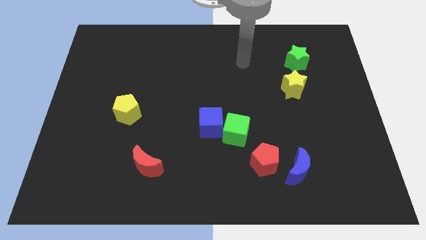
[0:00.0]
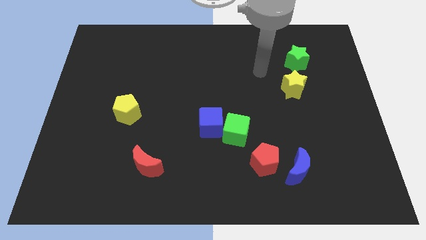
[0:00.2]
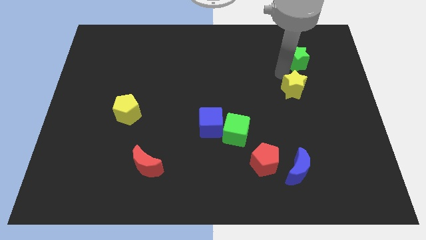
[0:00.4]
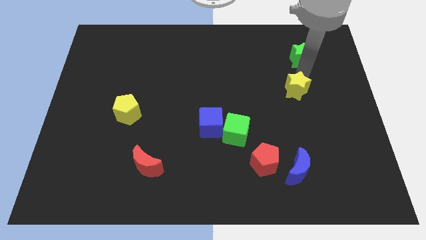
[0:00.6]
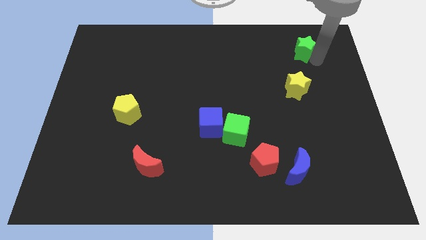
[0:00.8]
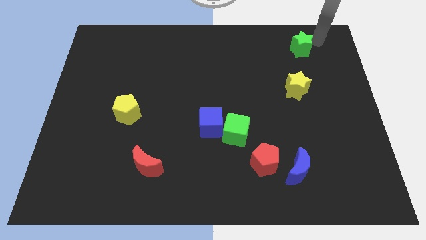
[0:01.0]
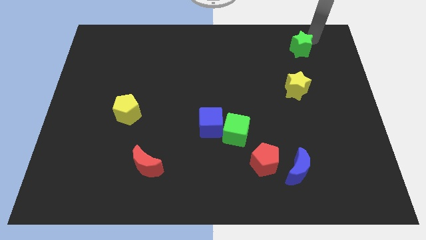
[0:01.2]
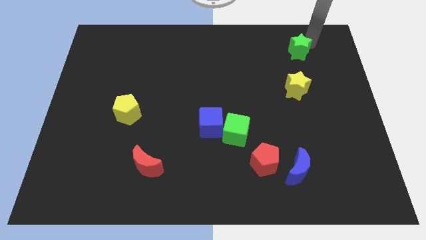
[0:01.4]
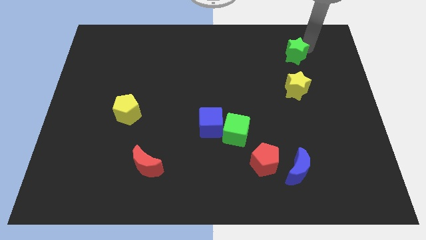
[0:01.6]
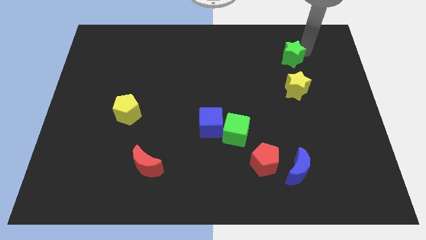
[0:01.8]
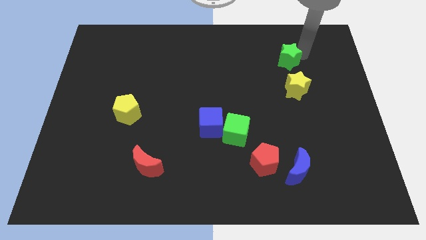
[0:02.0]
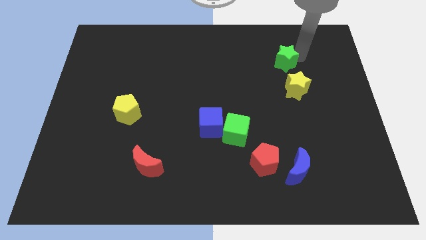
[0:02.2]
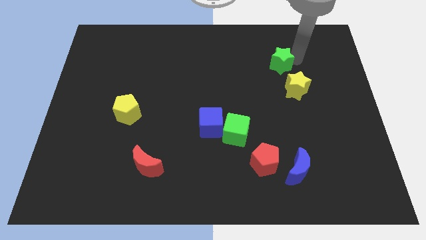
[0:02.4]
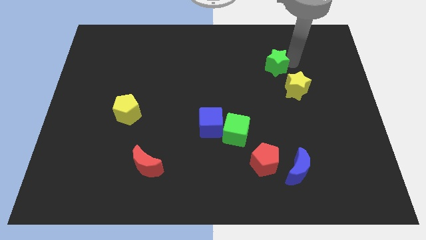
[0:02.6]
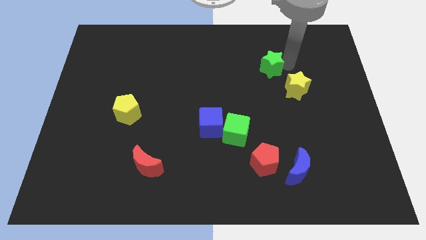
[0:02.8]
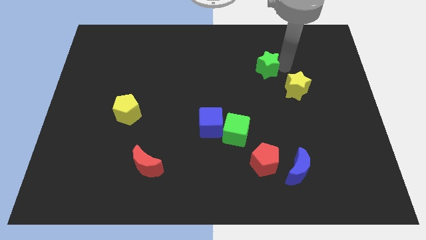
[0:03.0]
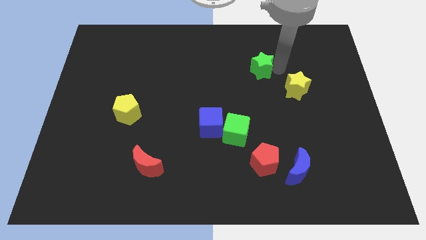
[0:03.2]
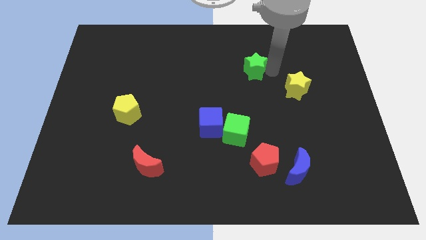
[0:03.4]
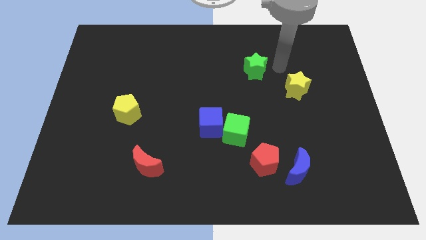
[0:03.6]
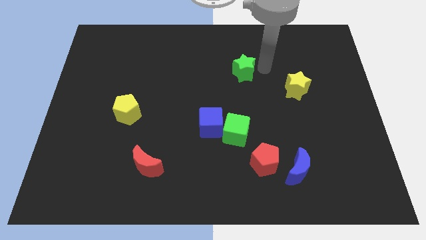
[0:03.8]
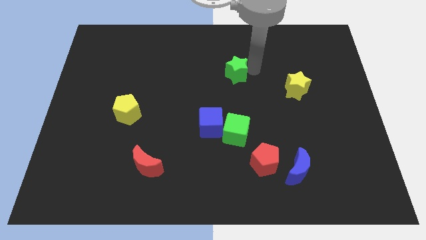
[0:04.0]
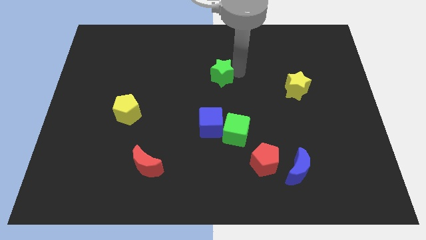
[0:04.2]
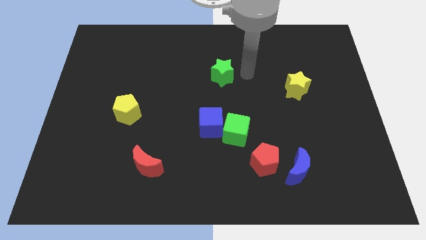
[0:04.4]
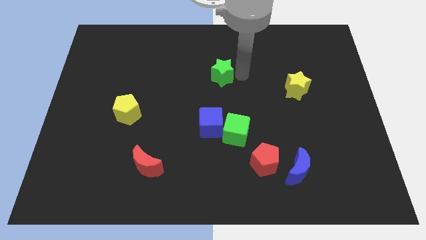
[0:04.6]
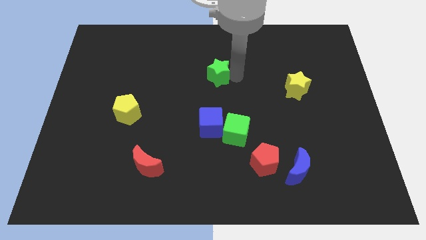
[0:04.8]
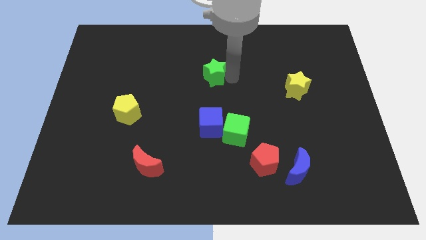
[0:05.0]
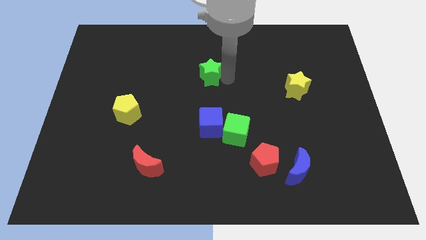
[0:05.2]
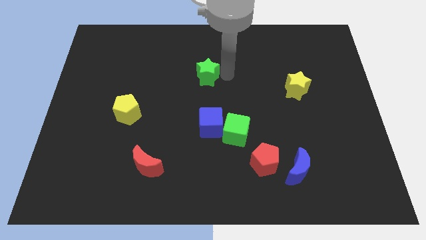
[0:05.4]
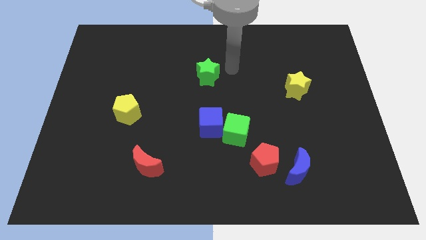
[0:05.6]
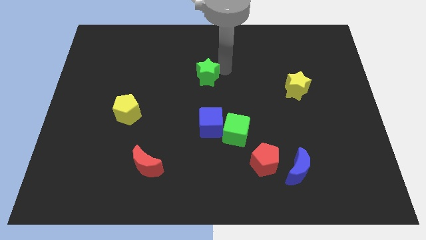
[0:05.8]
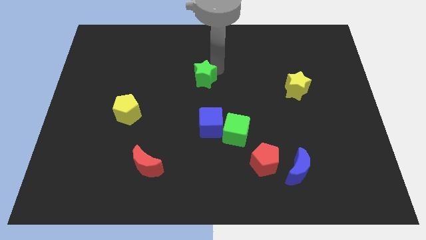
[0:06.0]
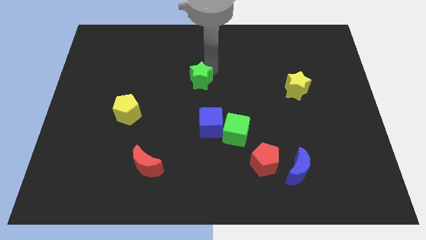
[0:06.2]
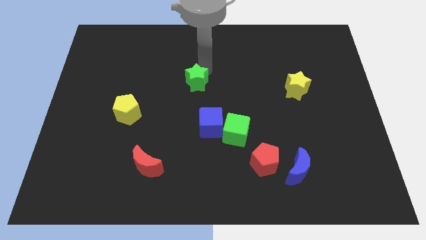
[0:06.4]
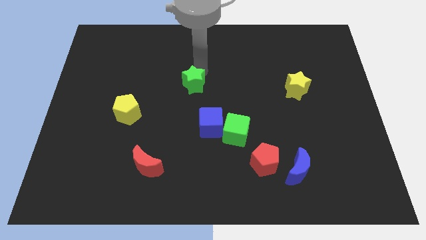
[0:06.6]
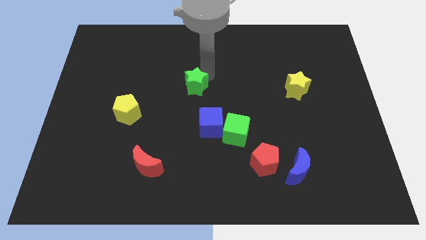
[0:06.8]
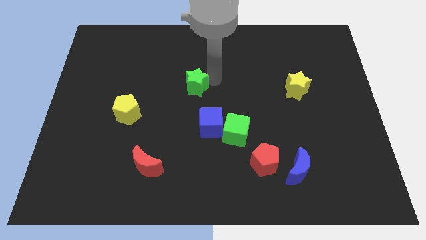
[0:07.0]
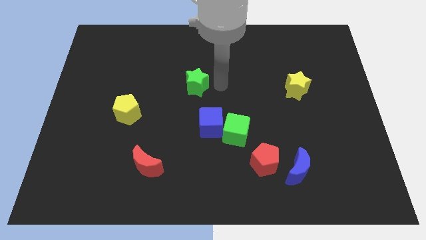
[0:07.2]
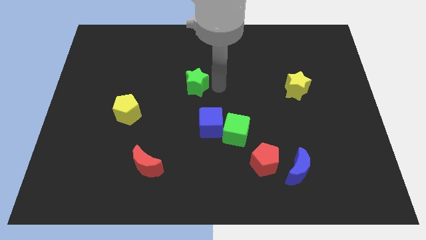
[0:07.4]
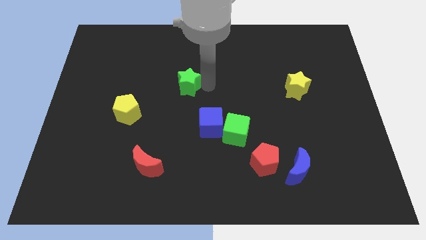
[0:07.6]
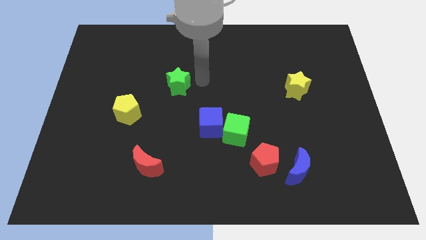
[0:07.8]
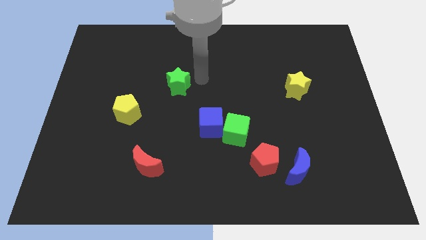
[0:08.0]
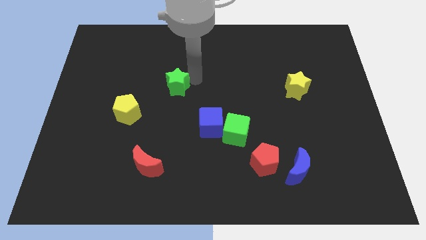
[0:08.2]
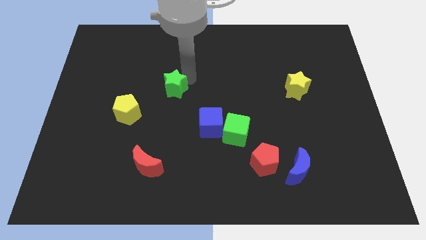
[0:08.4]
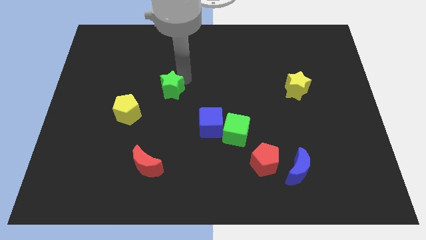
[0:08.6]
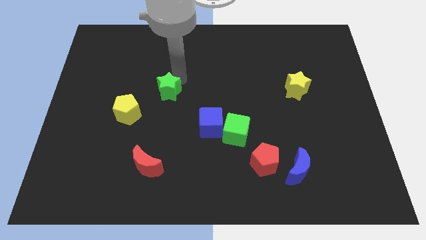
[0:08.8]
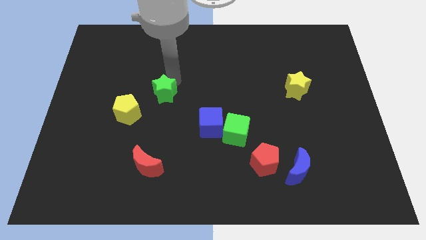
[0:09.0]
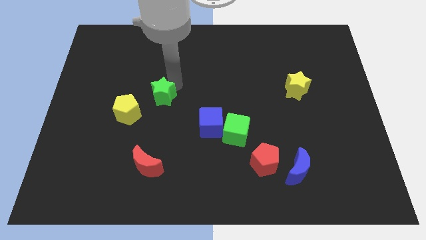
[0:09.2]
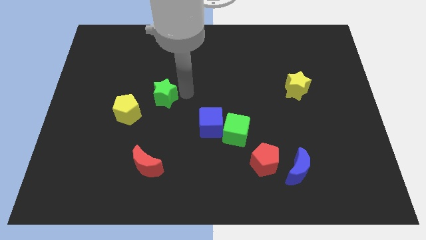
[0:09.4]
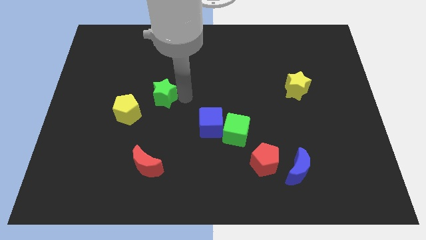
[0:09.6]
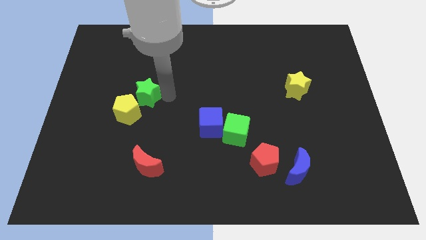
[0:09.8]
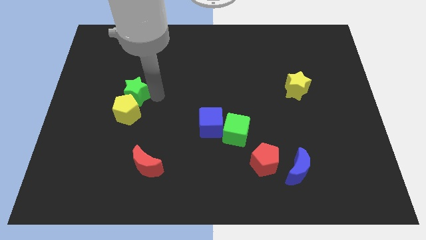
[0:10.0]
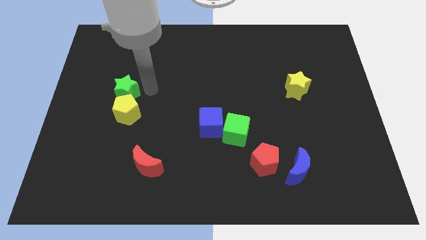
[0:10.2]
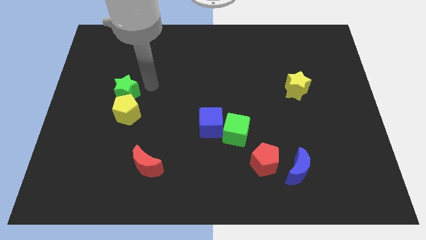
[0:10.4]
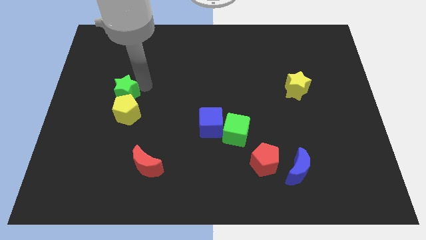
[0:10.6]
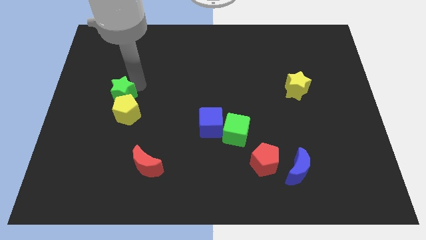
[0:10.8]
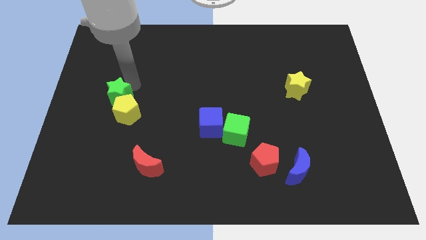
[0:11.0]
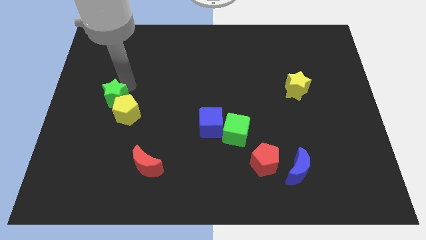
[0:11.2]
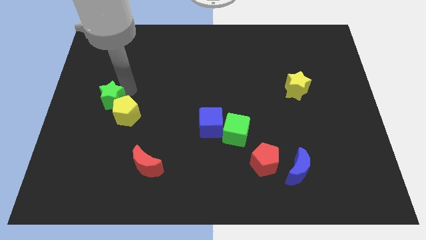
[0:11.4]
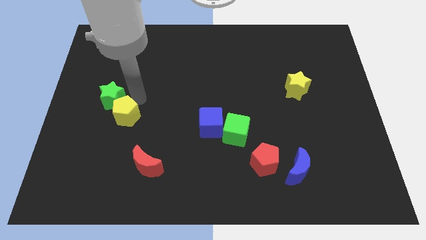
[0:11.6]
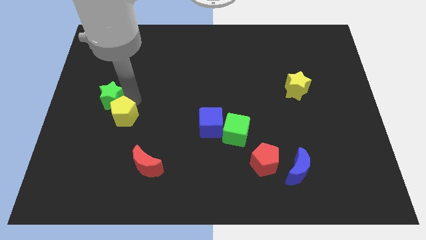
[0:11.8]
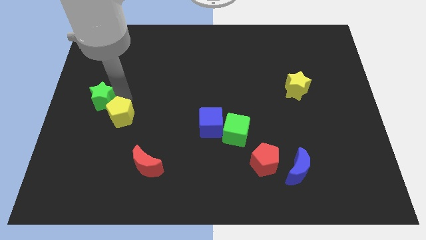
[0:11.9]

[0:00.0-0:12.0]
slide the green star to the left side of the board
